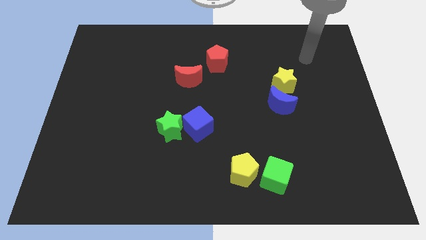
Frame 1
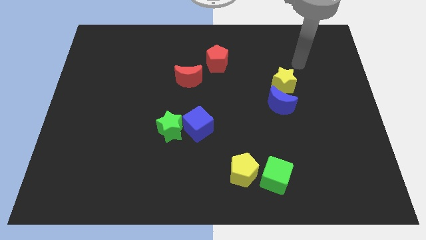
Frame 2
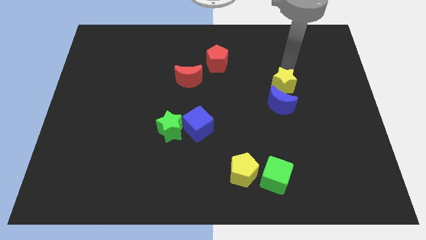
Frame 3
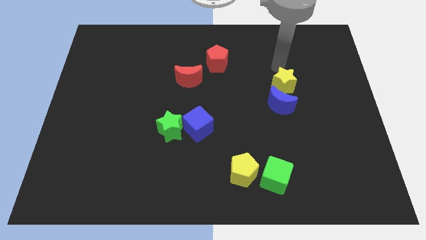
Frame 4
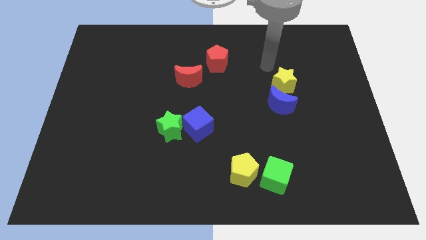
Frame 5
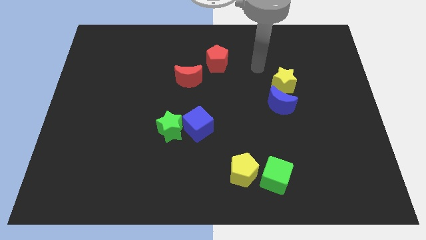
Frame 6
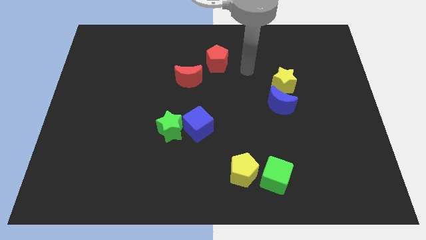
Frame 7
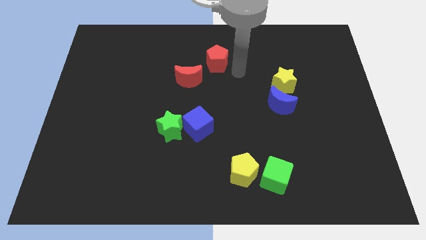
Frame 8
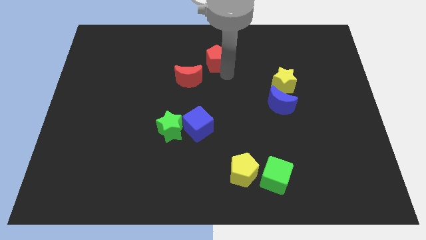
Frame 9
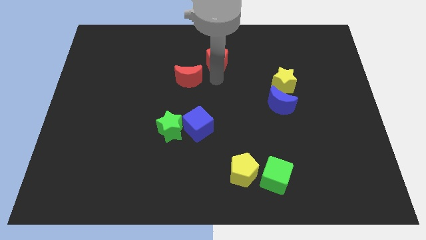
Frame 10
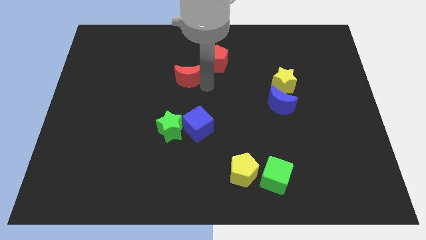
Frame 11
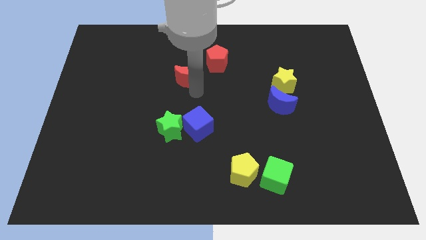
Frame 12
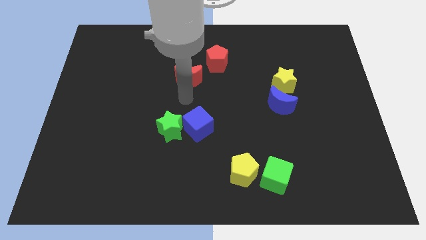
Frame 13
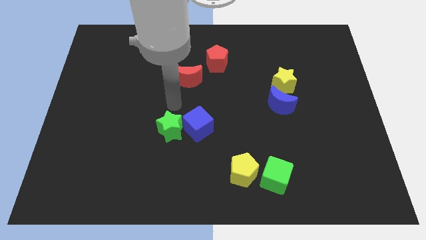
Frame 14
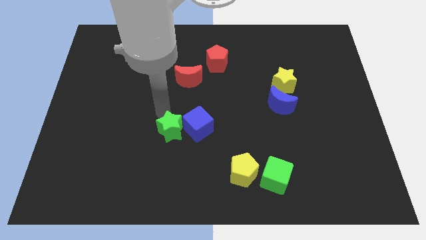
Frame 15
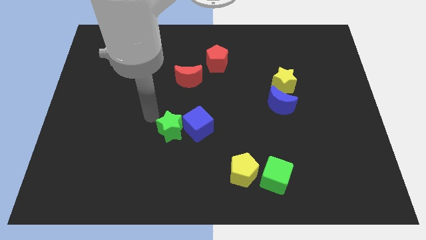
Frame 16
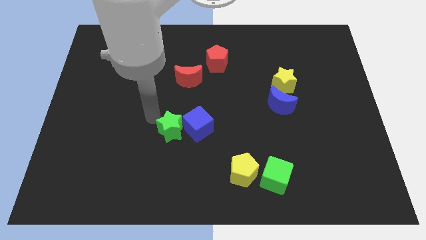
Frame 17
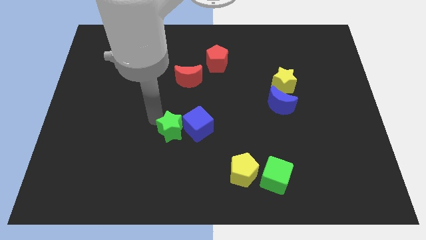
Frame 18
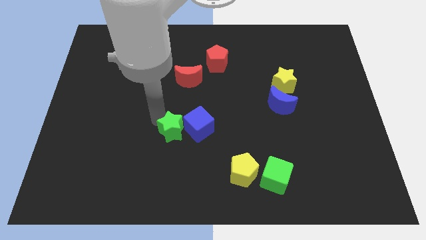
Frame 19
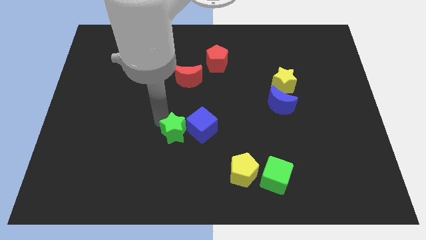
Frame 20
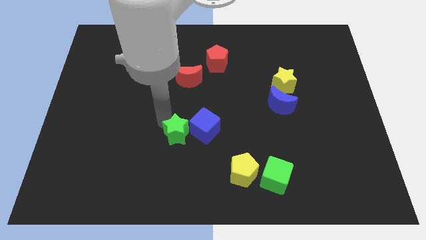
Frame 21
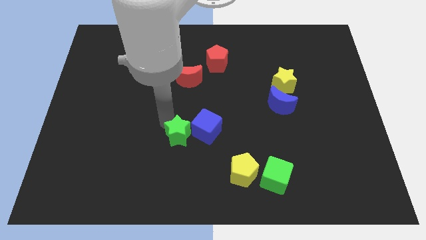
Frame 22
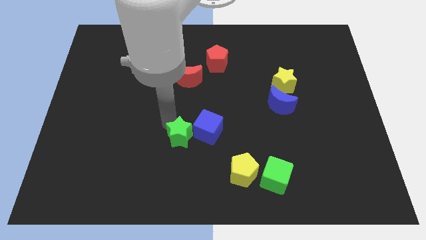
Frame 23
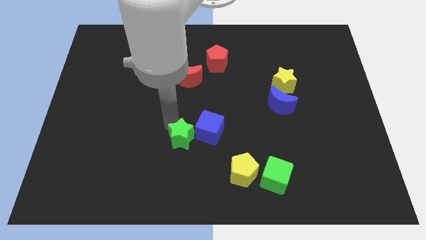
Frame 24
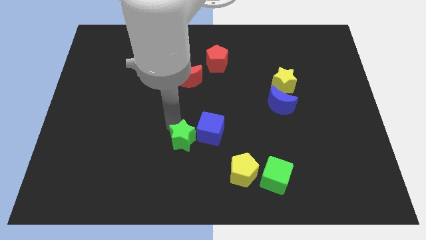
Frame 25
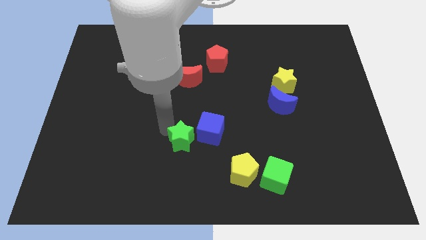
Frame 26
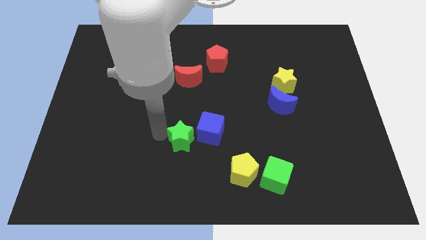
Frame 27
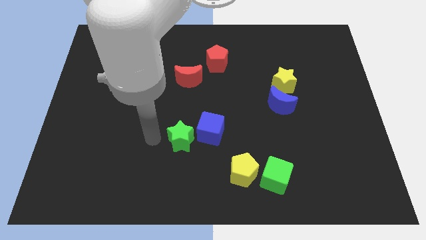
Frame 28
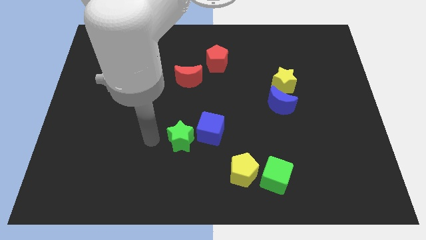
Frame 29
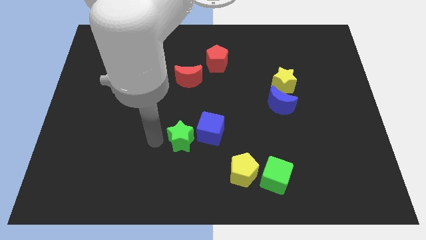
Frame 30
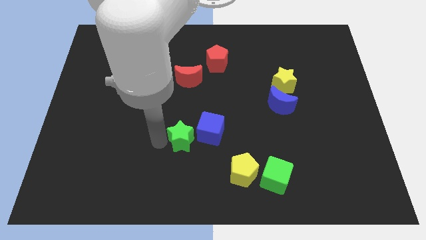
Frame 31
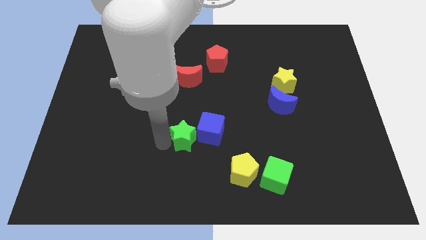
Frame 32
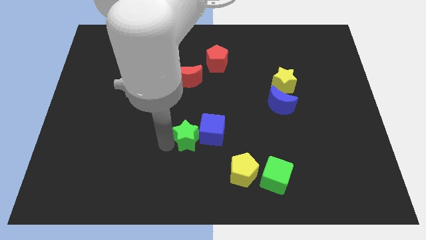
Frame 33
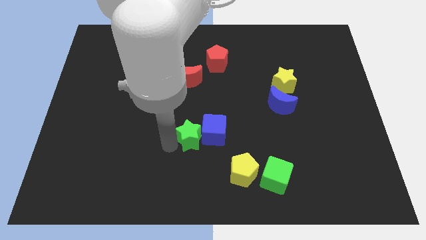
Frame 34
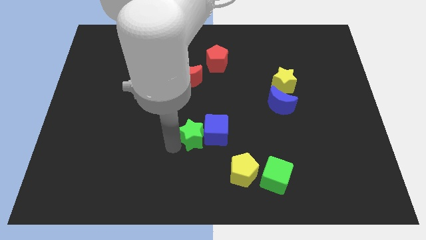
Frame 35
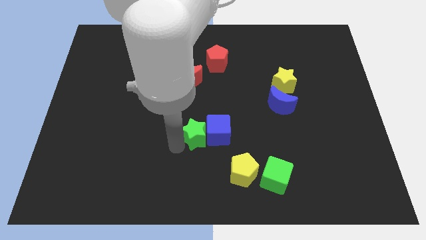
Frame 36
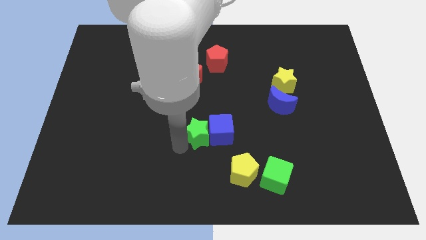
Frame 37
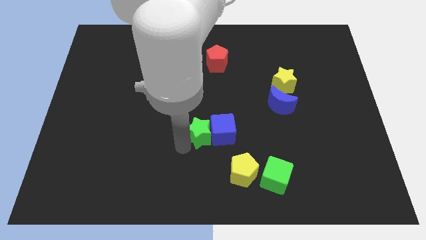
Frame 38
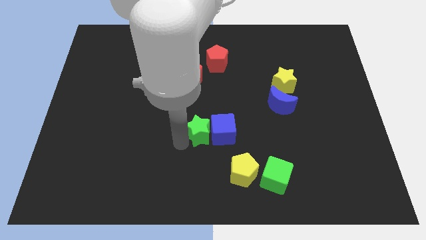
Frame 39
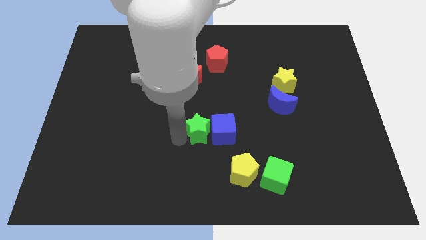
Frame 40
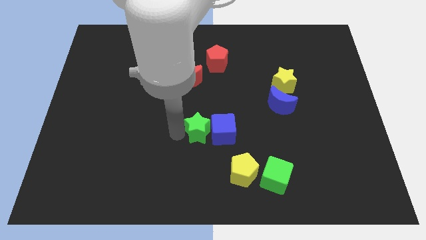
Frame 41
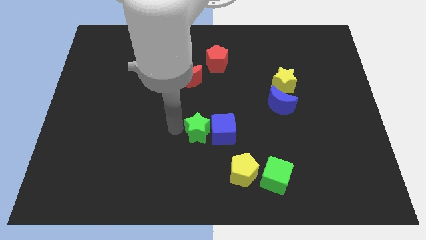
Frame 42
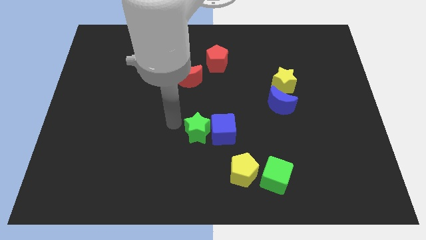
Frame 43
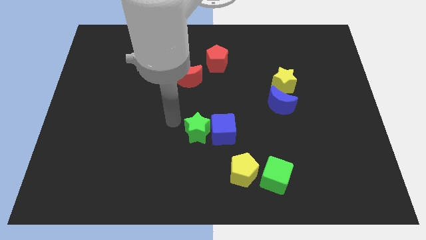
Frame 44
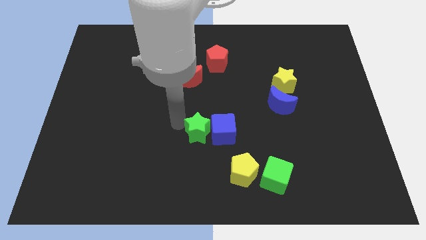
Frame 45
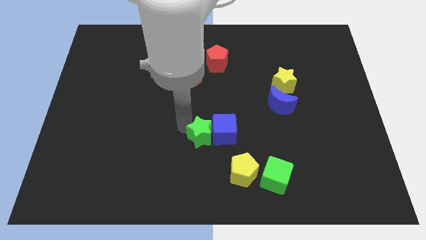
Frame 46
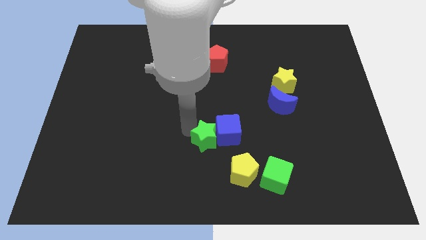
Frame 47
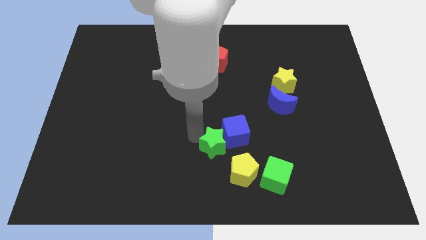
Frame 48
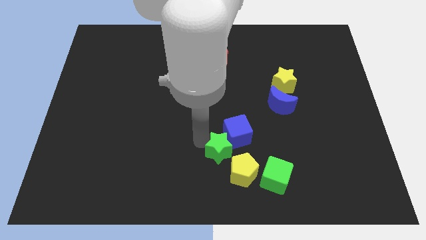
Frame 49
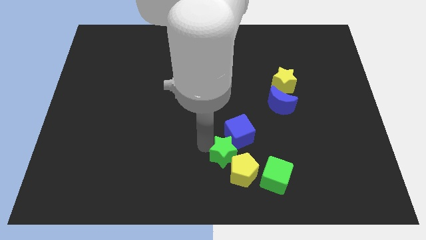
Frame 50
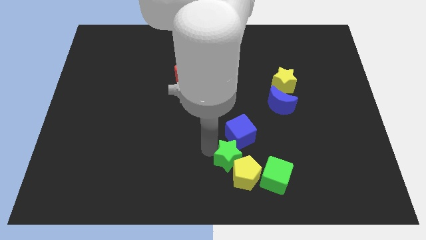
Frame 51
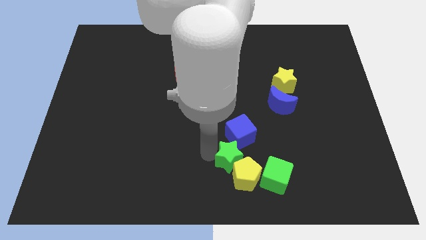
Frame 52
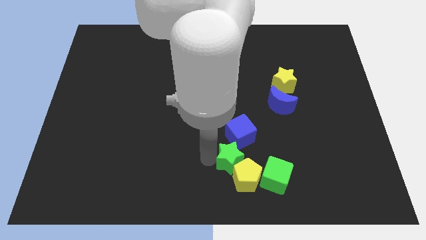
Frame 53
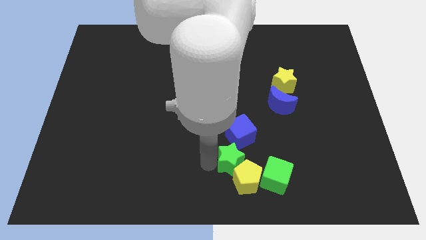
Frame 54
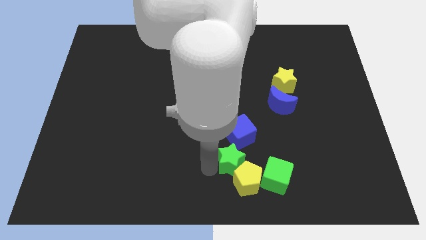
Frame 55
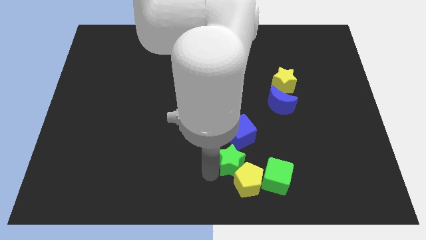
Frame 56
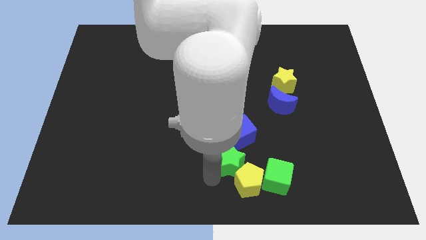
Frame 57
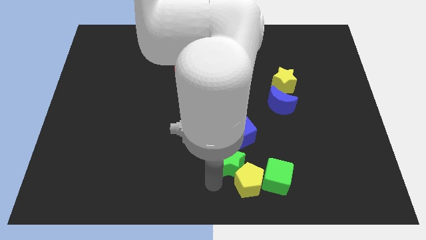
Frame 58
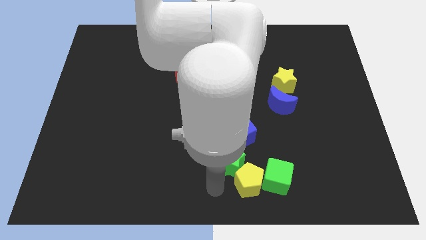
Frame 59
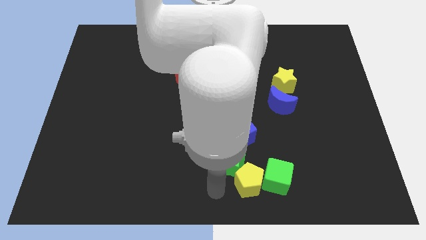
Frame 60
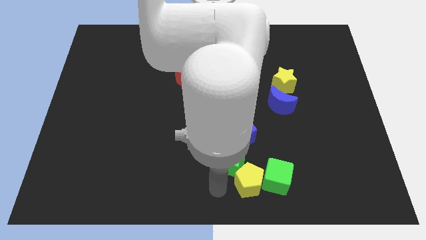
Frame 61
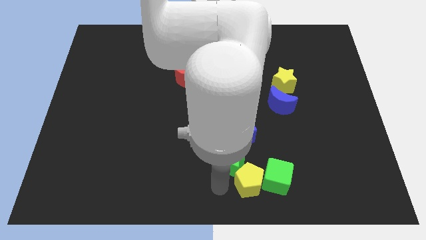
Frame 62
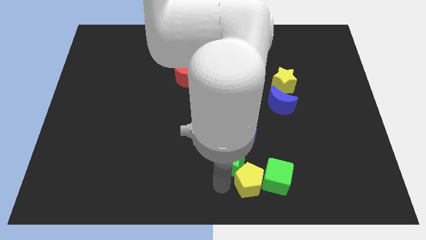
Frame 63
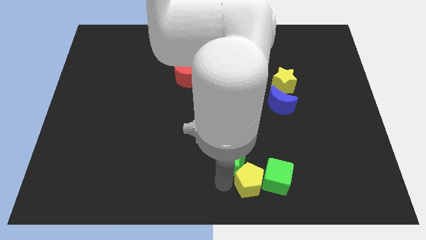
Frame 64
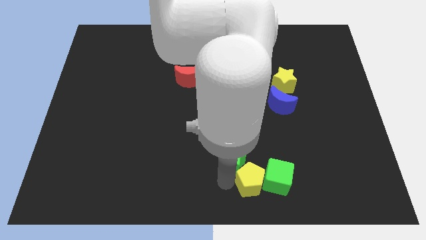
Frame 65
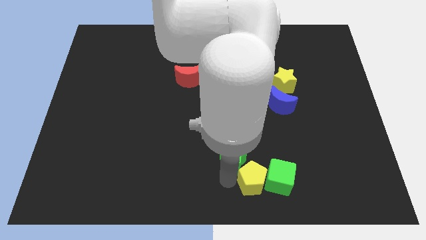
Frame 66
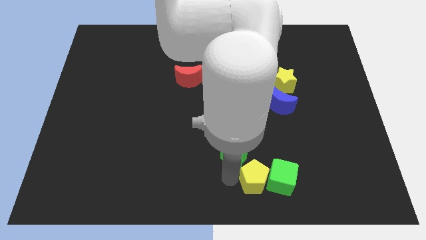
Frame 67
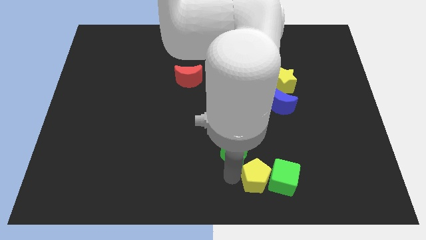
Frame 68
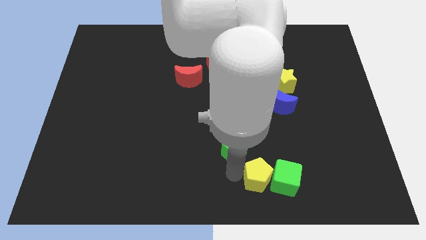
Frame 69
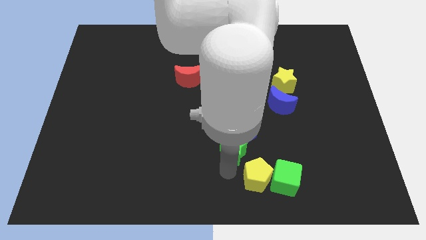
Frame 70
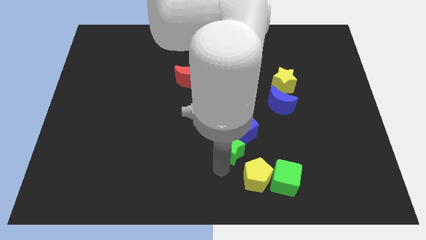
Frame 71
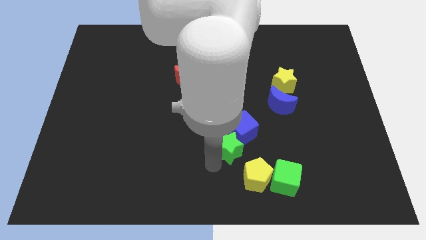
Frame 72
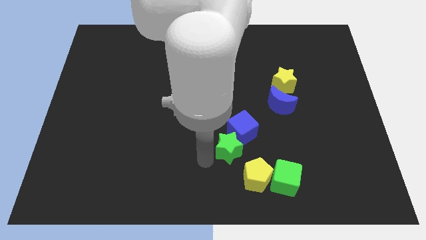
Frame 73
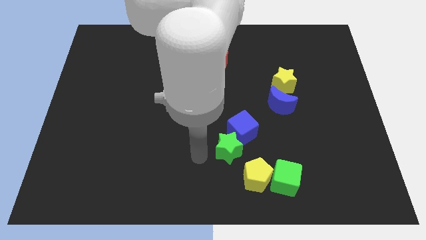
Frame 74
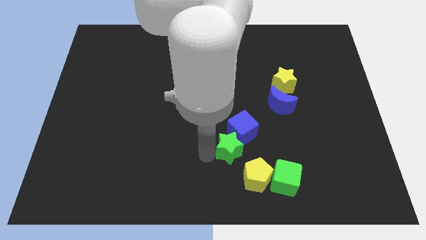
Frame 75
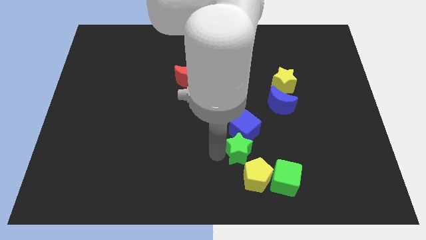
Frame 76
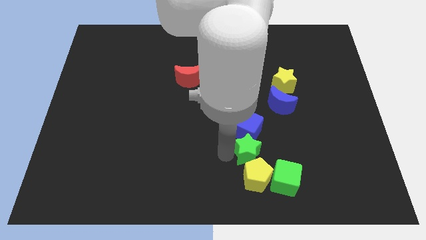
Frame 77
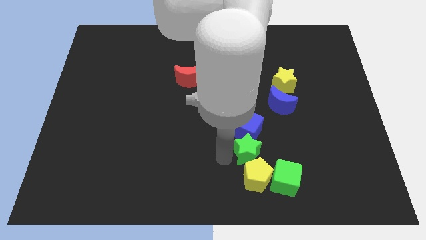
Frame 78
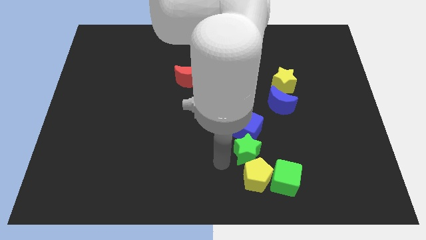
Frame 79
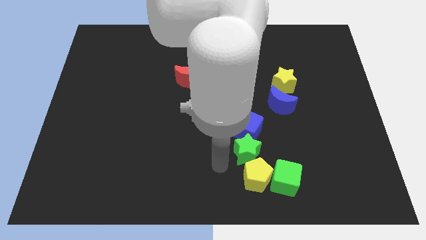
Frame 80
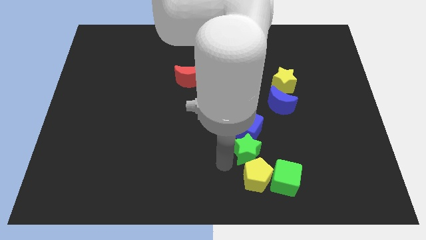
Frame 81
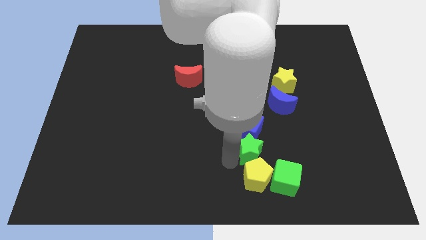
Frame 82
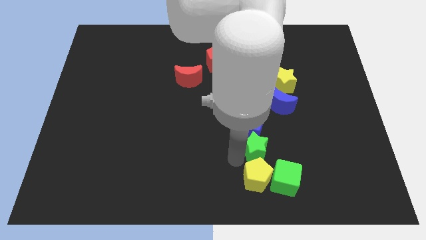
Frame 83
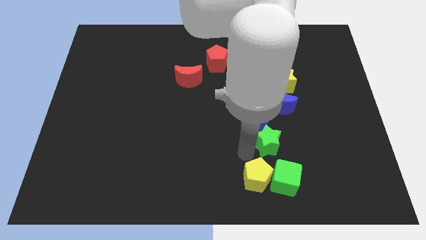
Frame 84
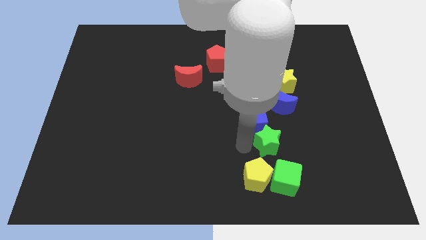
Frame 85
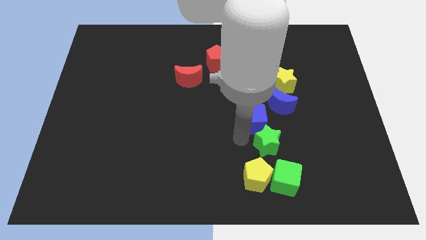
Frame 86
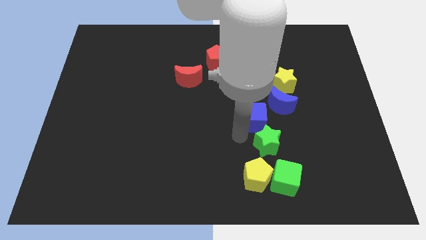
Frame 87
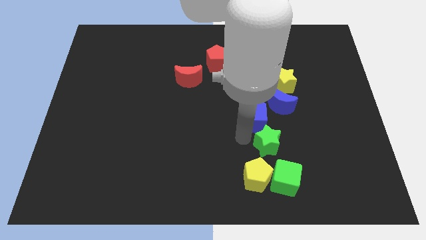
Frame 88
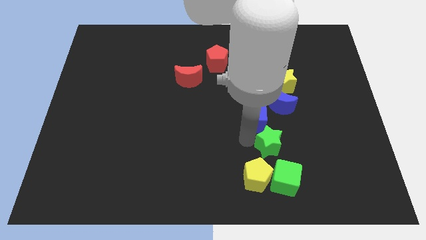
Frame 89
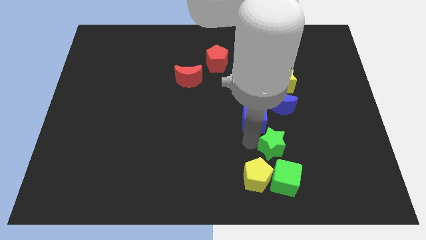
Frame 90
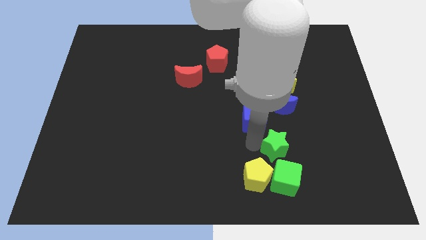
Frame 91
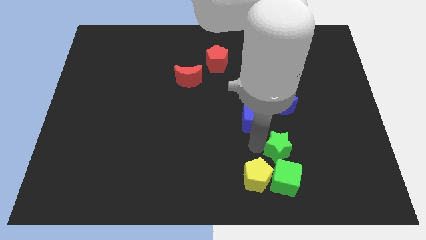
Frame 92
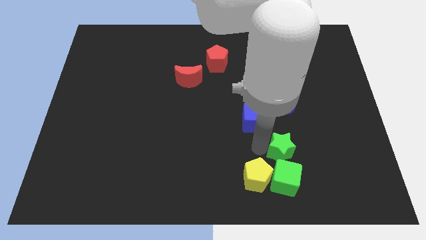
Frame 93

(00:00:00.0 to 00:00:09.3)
put the green star to the top right side of the green cube
